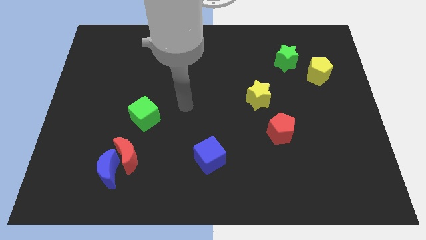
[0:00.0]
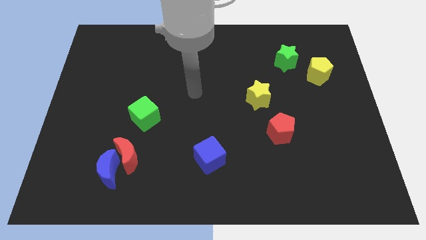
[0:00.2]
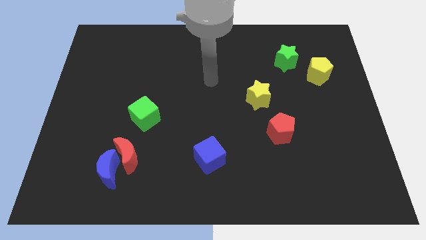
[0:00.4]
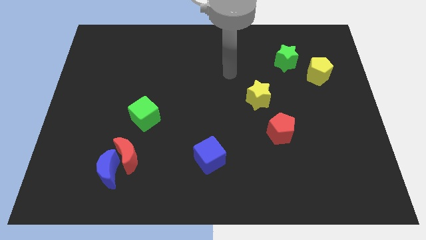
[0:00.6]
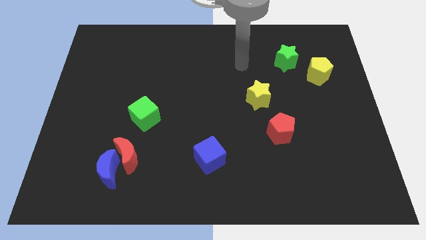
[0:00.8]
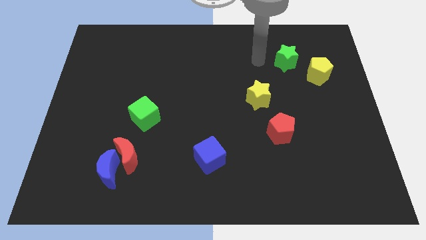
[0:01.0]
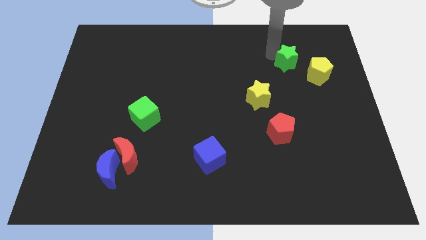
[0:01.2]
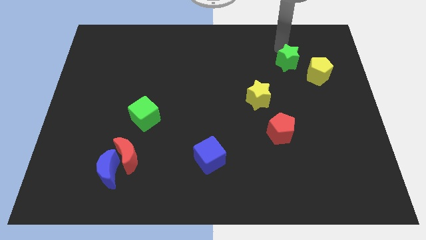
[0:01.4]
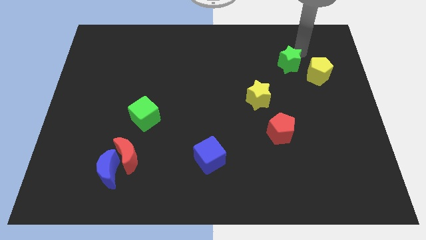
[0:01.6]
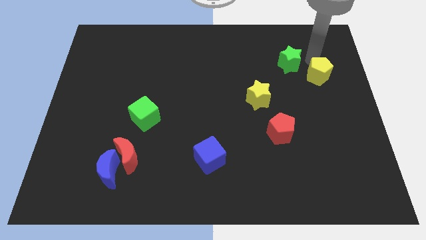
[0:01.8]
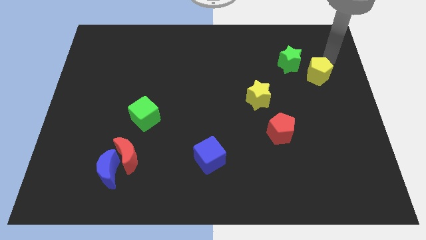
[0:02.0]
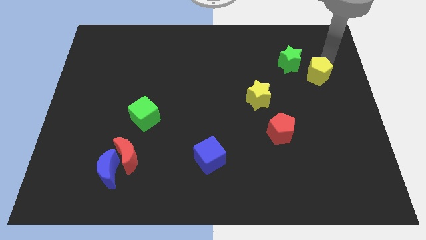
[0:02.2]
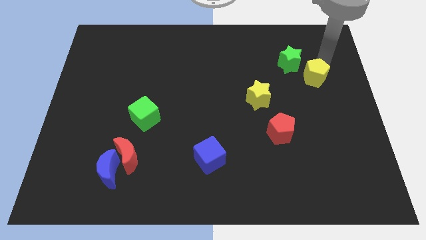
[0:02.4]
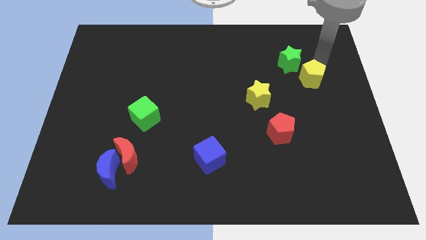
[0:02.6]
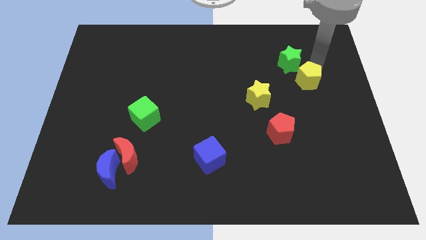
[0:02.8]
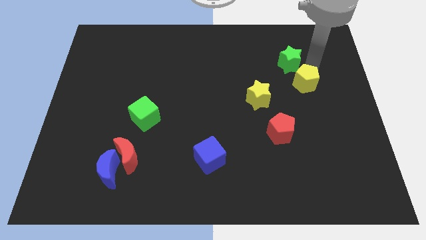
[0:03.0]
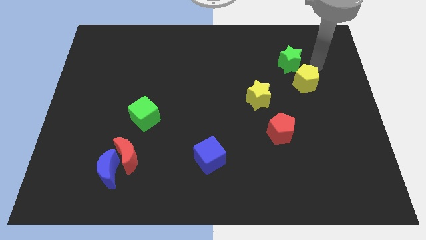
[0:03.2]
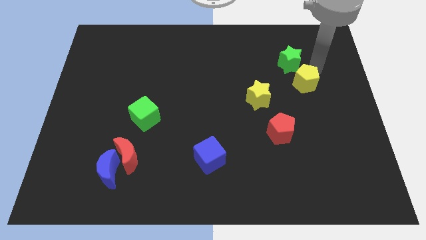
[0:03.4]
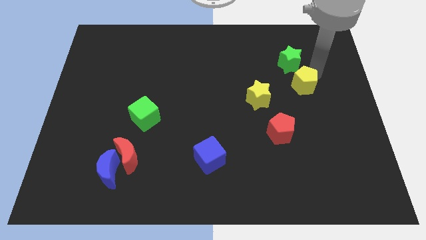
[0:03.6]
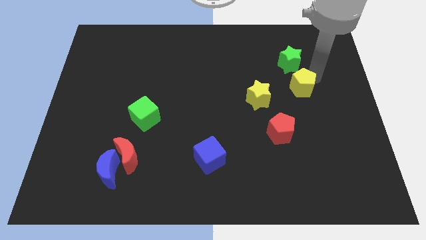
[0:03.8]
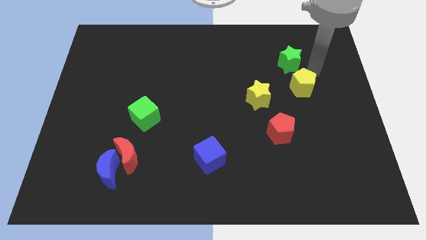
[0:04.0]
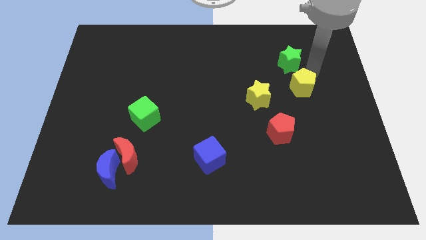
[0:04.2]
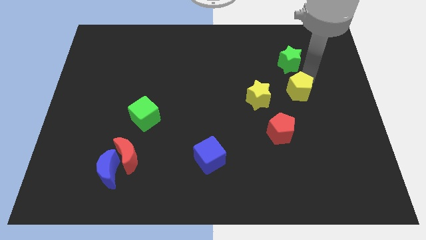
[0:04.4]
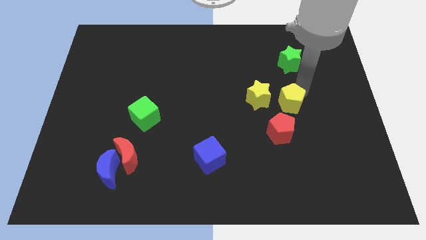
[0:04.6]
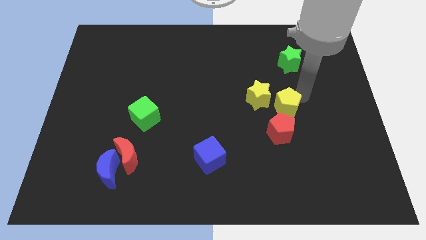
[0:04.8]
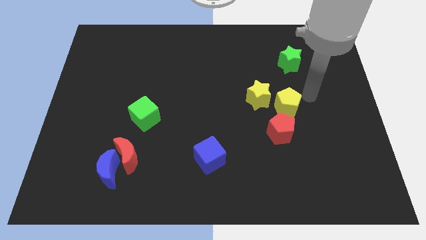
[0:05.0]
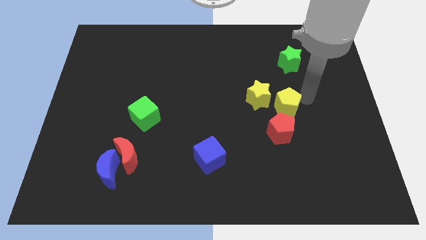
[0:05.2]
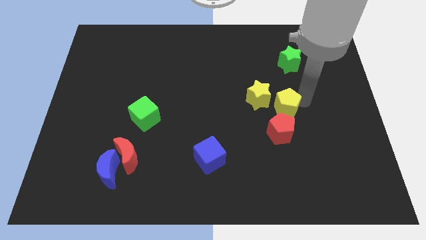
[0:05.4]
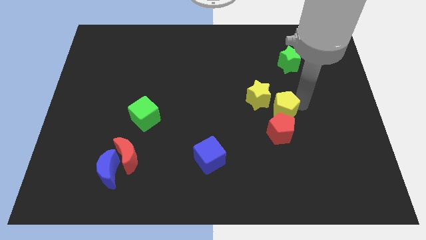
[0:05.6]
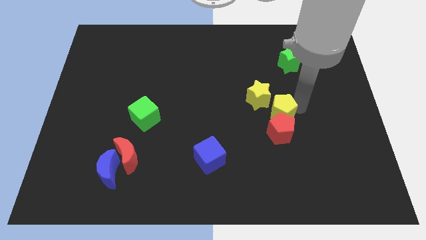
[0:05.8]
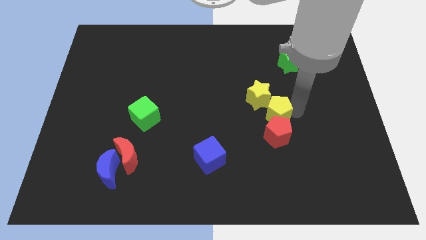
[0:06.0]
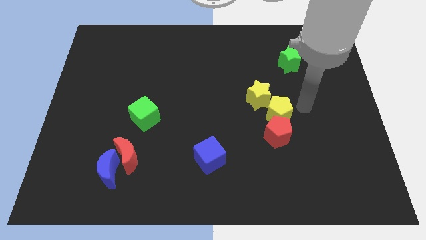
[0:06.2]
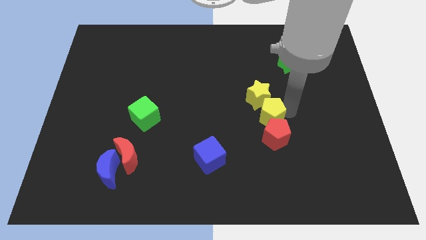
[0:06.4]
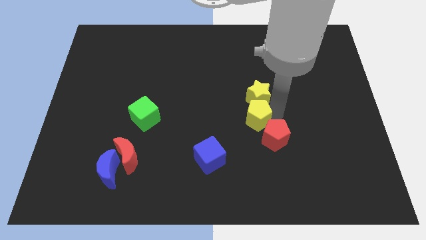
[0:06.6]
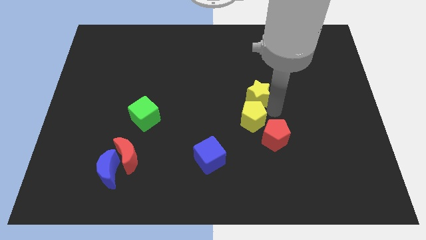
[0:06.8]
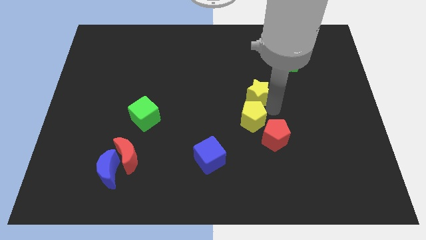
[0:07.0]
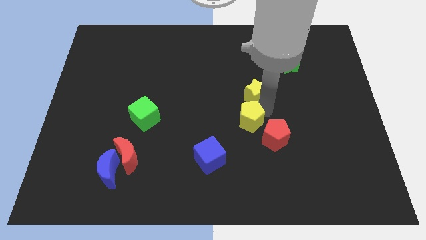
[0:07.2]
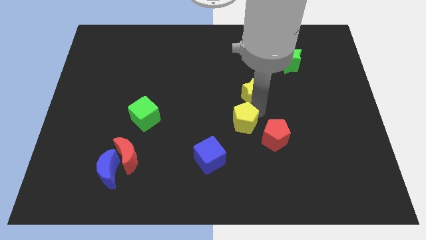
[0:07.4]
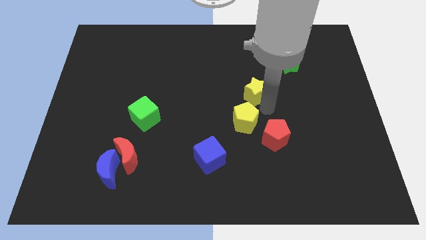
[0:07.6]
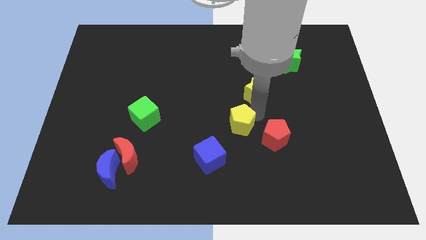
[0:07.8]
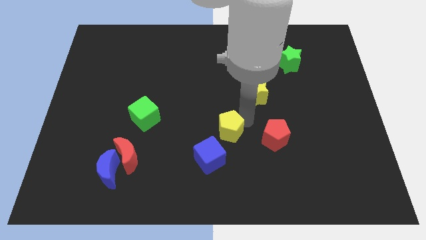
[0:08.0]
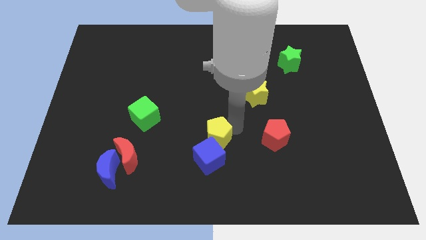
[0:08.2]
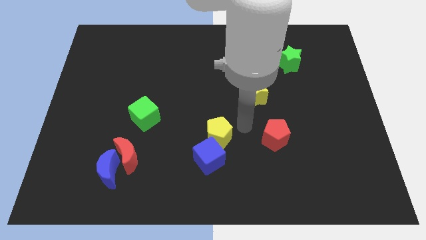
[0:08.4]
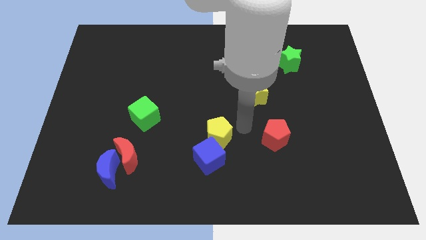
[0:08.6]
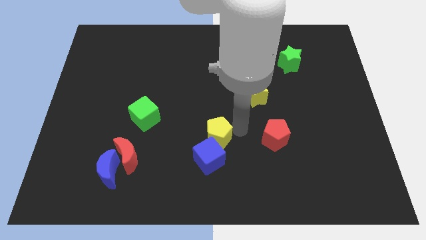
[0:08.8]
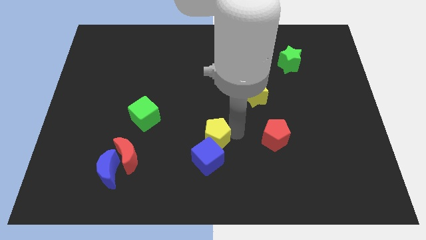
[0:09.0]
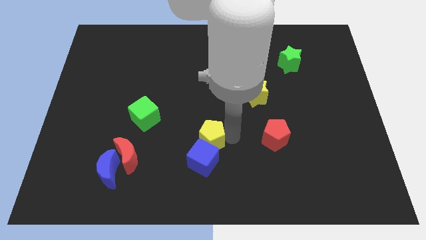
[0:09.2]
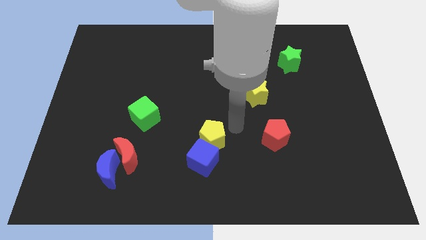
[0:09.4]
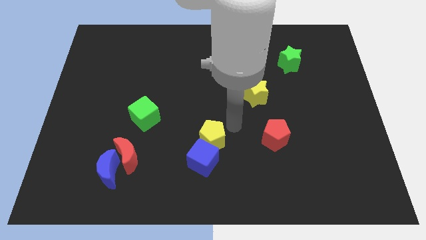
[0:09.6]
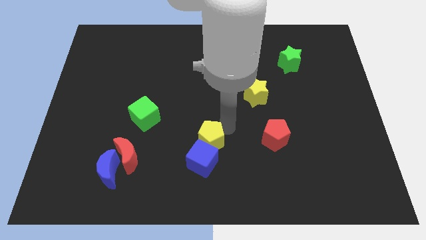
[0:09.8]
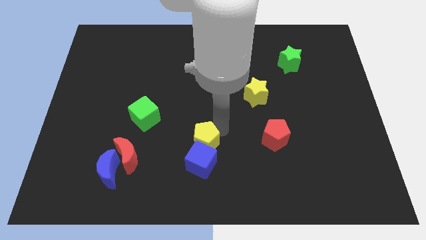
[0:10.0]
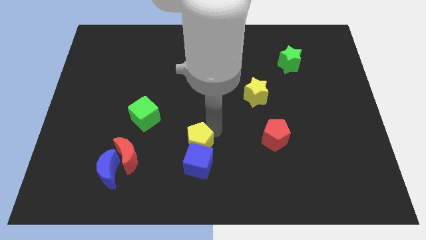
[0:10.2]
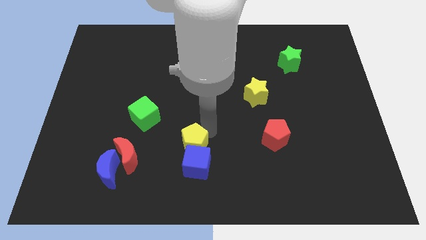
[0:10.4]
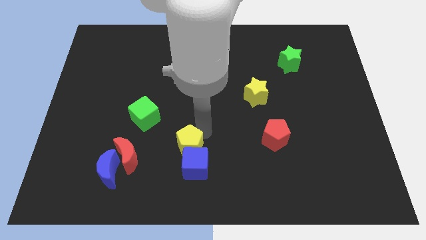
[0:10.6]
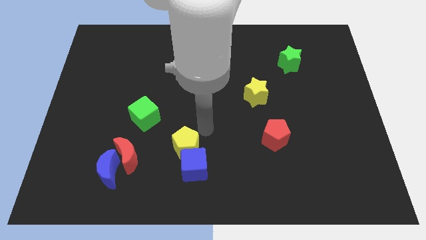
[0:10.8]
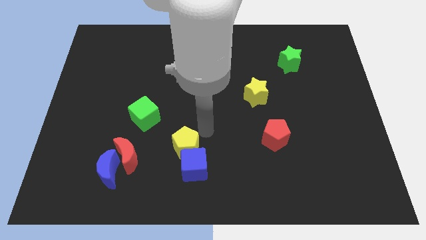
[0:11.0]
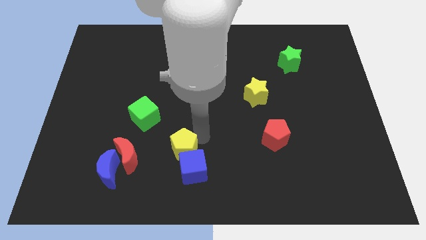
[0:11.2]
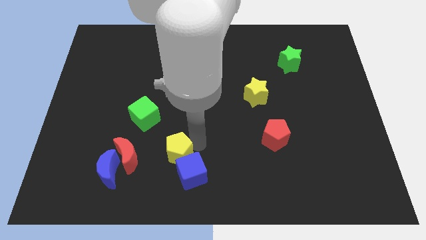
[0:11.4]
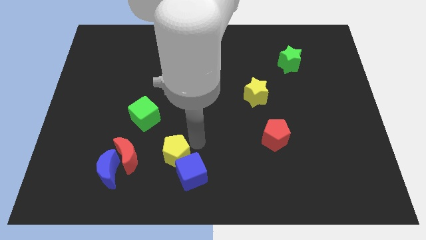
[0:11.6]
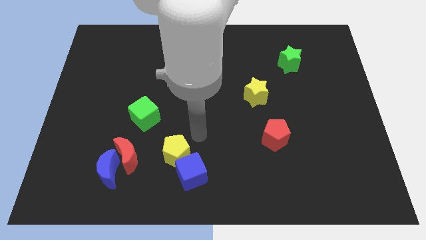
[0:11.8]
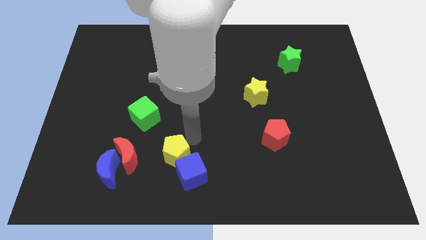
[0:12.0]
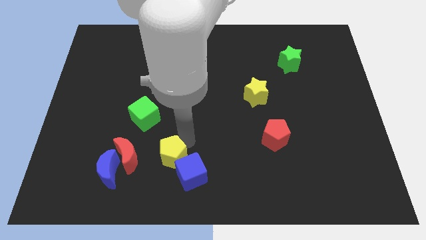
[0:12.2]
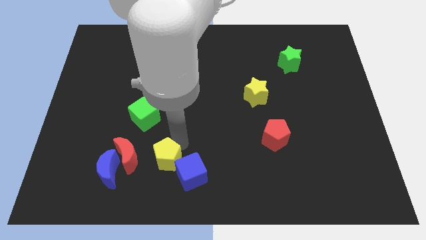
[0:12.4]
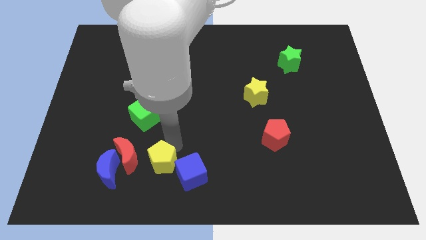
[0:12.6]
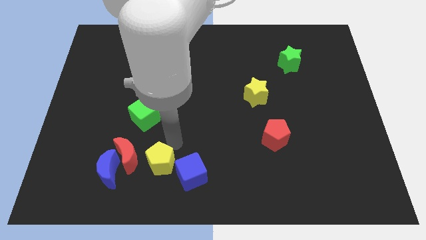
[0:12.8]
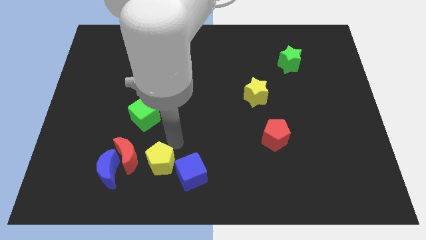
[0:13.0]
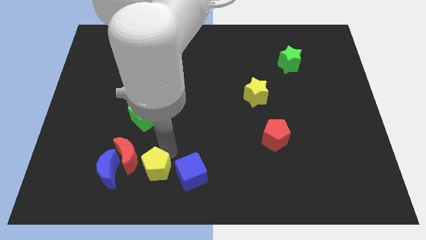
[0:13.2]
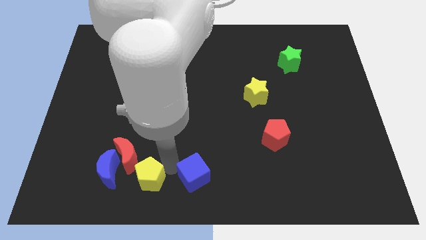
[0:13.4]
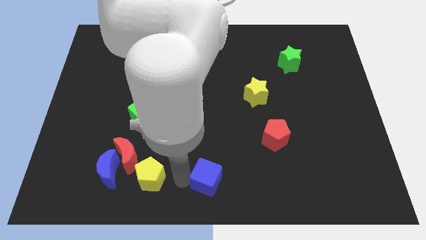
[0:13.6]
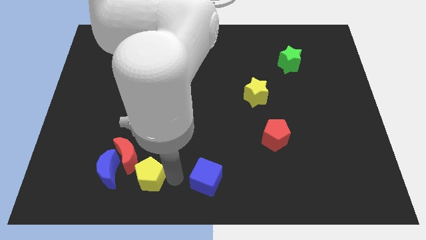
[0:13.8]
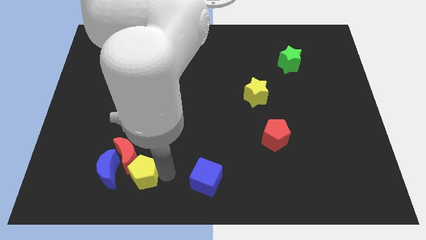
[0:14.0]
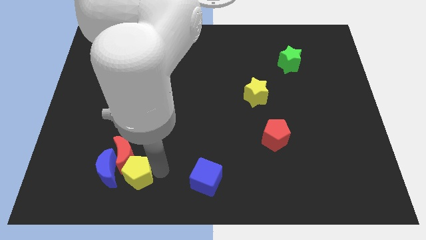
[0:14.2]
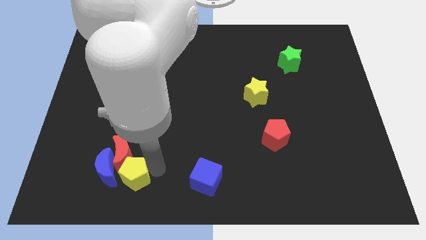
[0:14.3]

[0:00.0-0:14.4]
move the yellow pentagon next to the blue moon

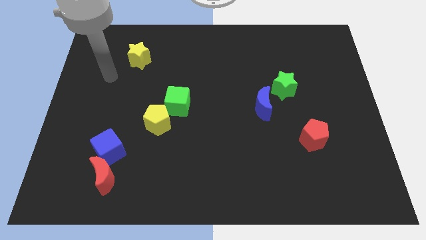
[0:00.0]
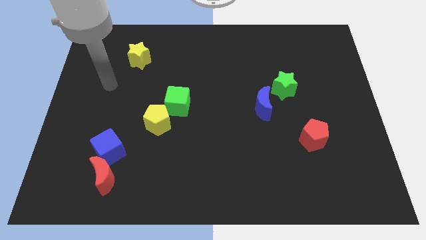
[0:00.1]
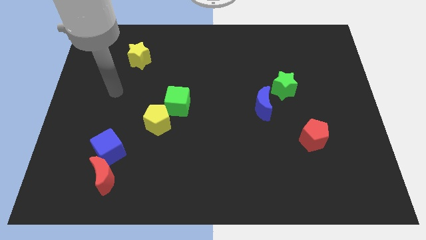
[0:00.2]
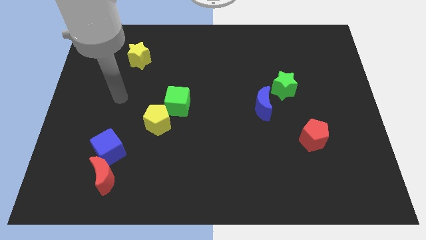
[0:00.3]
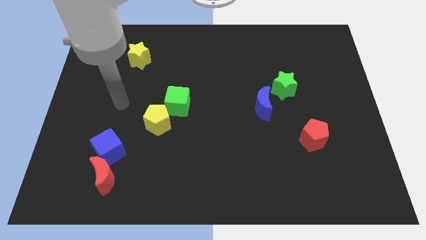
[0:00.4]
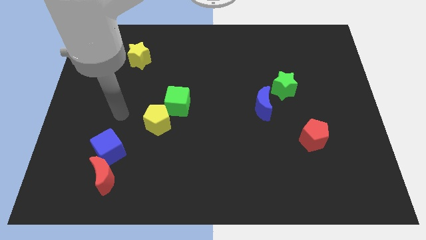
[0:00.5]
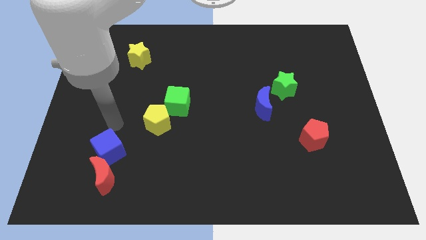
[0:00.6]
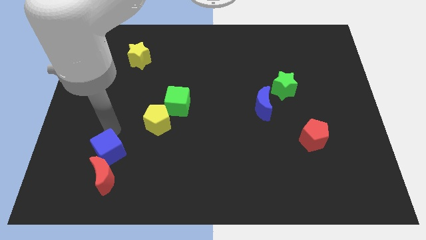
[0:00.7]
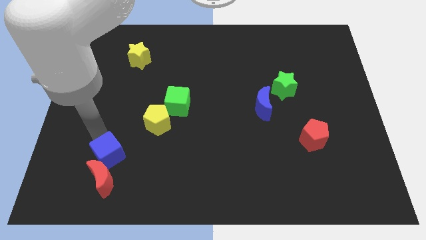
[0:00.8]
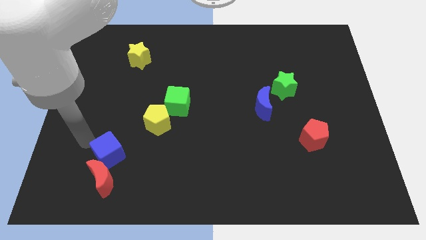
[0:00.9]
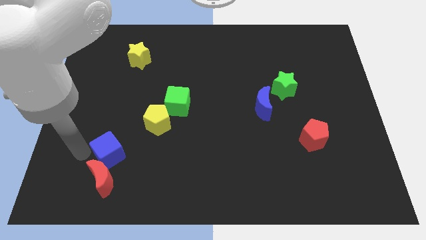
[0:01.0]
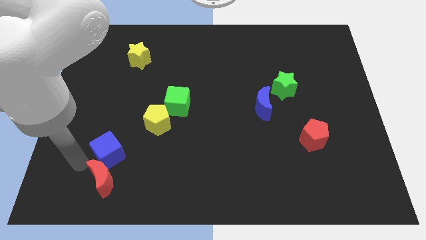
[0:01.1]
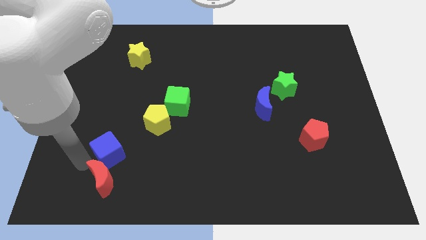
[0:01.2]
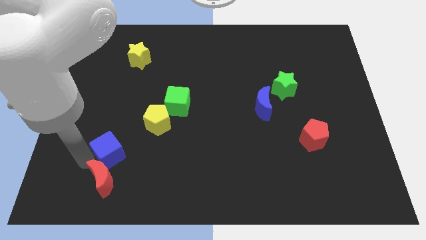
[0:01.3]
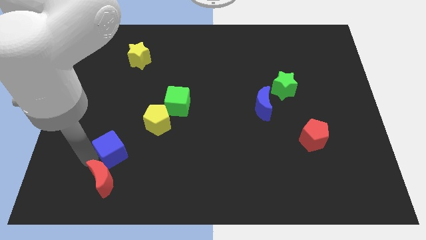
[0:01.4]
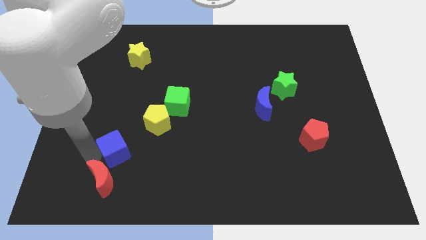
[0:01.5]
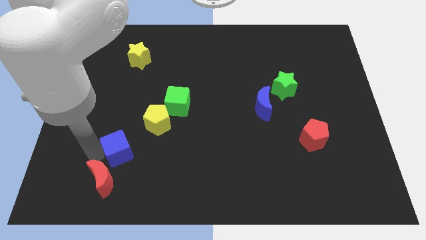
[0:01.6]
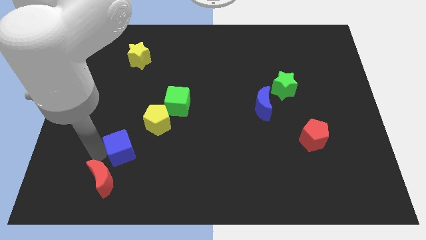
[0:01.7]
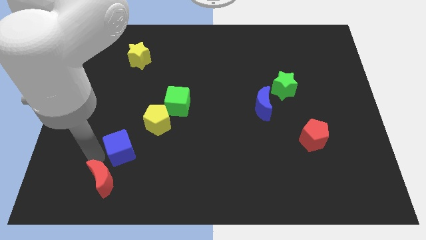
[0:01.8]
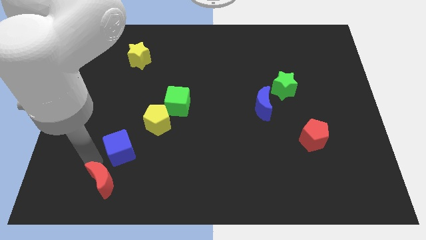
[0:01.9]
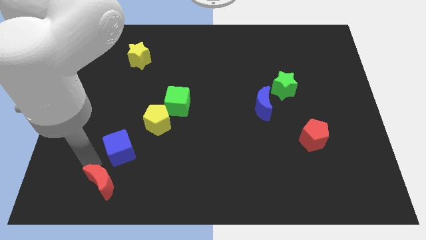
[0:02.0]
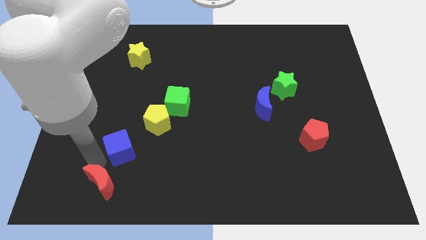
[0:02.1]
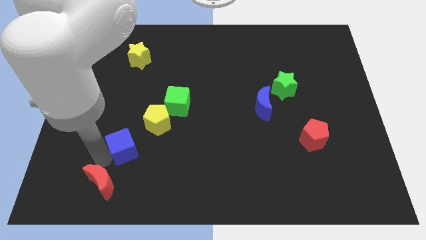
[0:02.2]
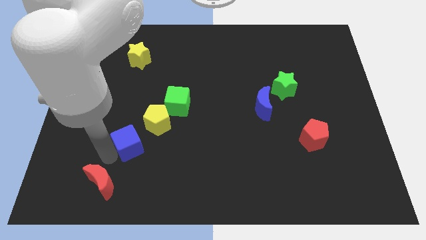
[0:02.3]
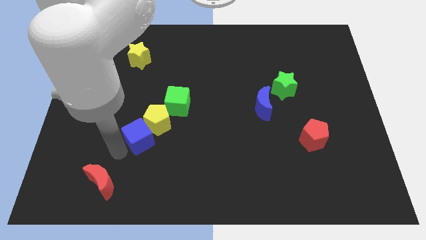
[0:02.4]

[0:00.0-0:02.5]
slide the blue cube to the yellow pentagon
